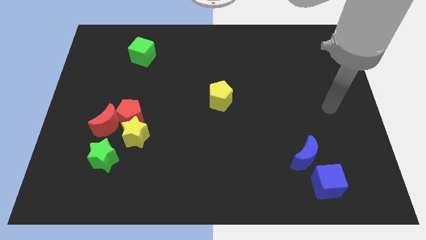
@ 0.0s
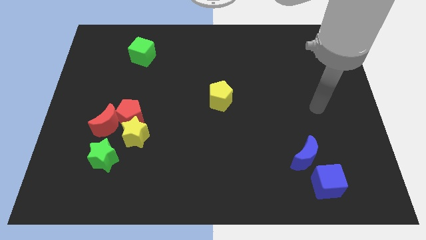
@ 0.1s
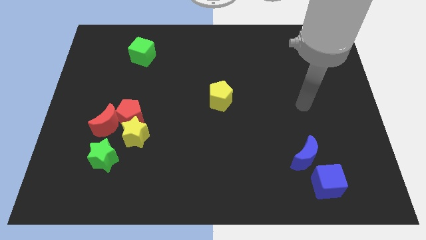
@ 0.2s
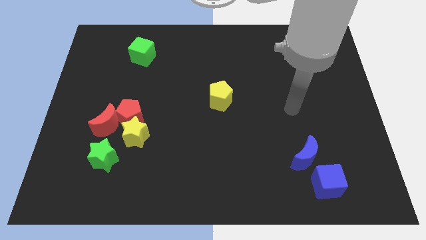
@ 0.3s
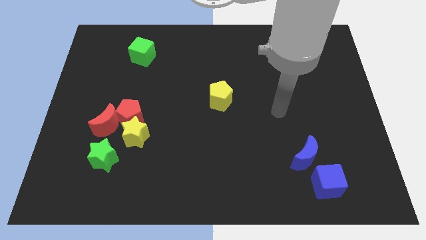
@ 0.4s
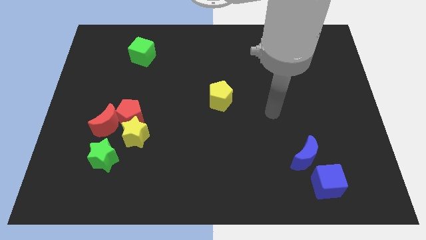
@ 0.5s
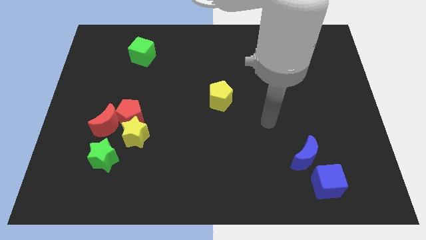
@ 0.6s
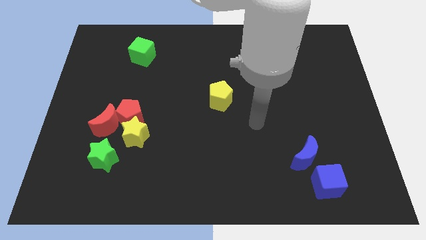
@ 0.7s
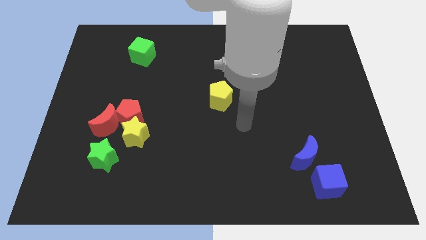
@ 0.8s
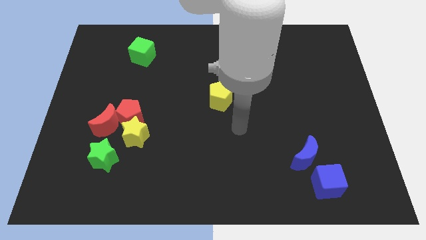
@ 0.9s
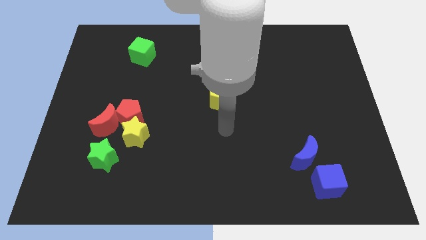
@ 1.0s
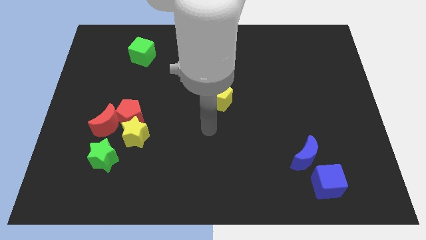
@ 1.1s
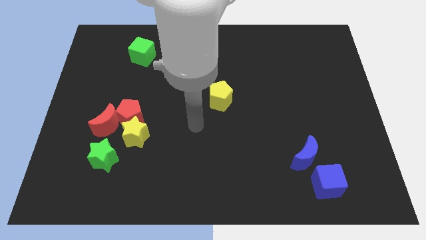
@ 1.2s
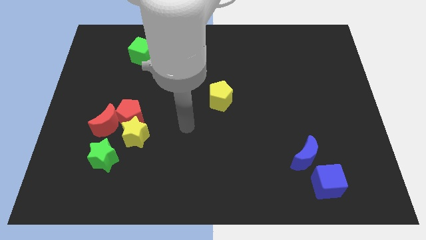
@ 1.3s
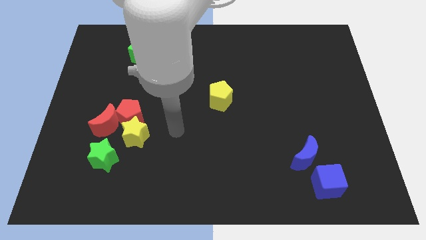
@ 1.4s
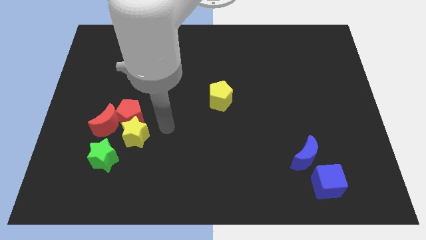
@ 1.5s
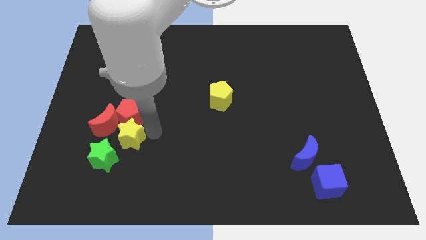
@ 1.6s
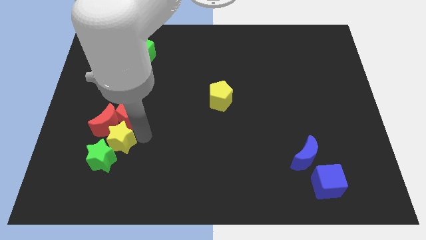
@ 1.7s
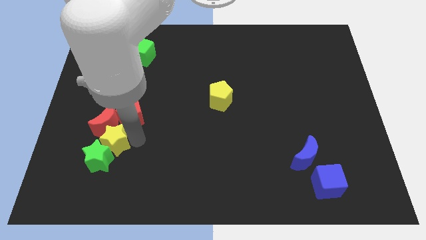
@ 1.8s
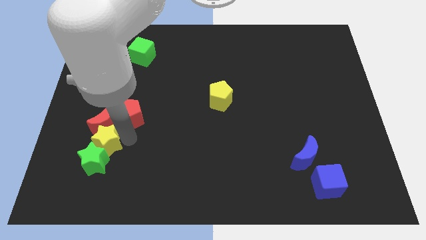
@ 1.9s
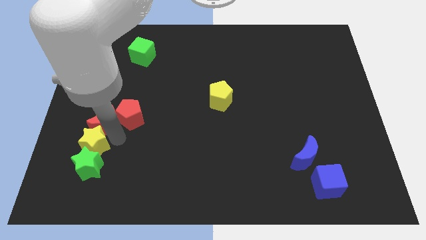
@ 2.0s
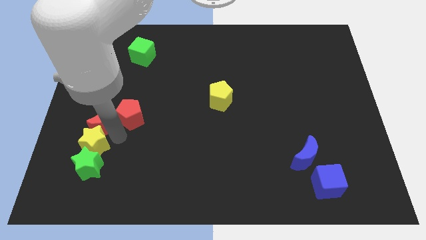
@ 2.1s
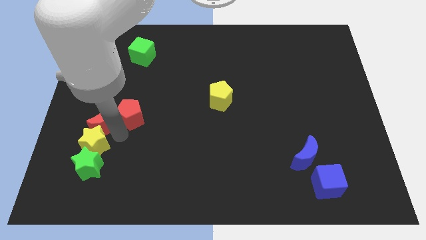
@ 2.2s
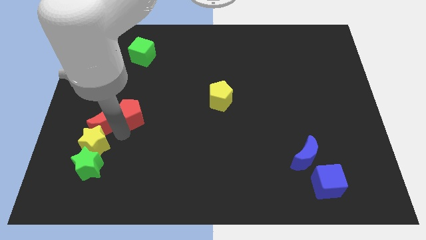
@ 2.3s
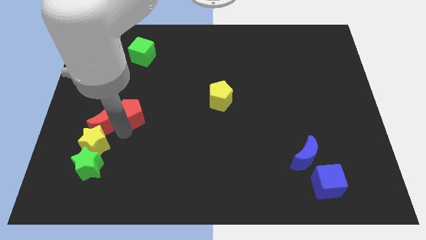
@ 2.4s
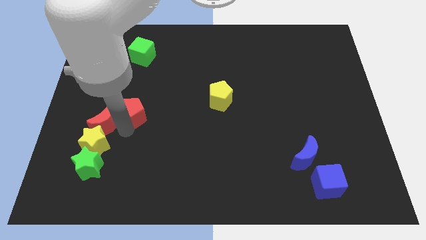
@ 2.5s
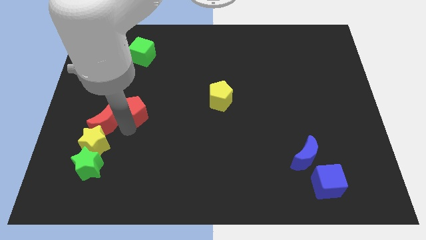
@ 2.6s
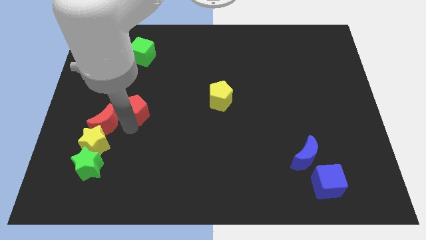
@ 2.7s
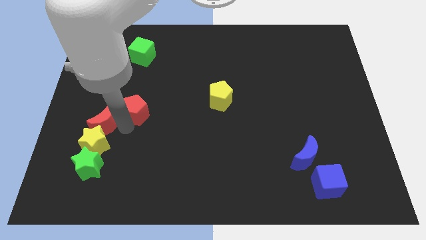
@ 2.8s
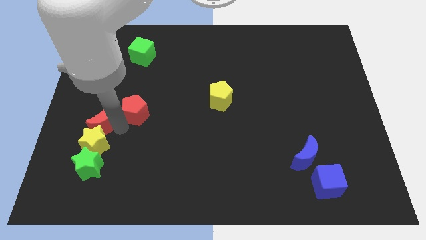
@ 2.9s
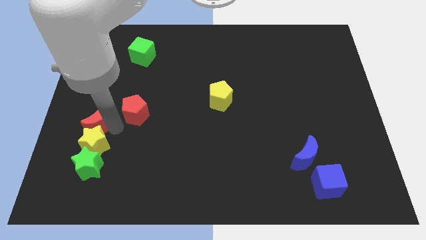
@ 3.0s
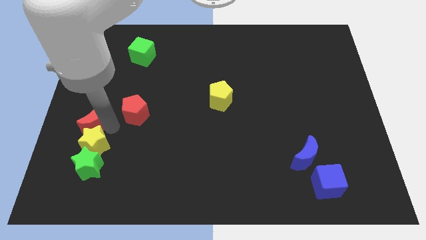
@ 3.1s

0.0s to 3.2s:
separate the red pentagon from the yellow star and red moon

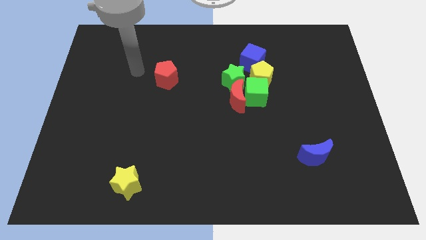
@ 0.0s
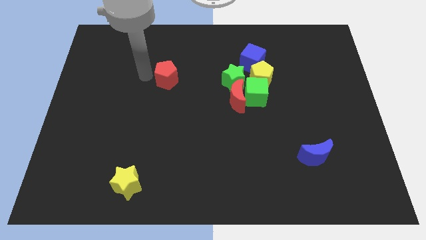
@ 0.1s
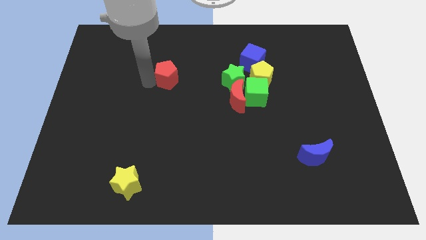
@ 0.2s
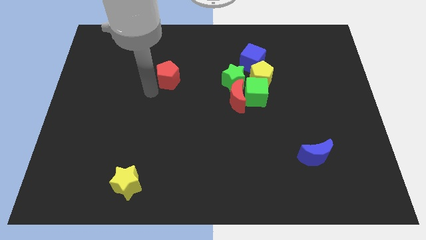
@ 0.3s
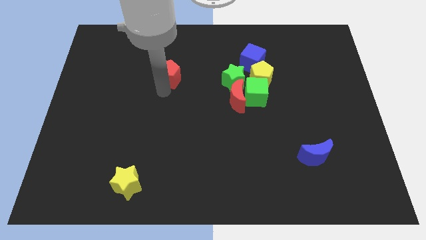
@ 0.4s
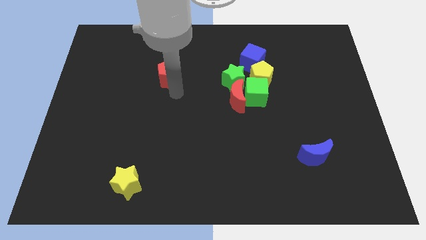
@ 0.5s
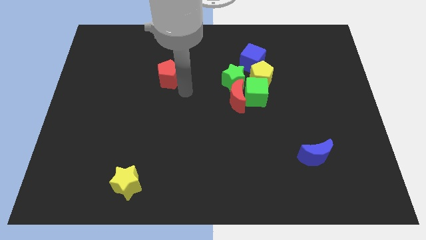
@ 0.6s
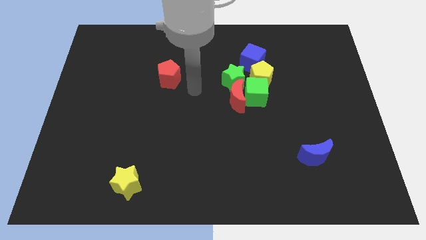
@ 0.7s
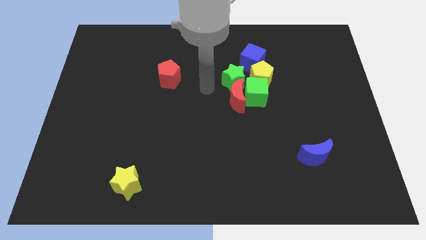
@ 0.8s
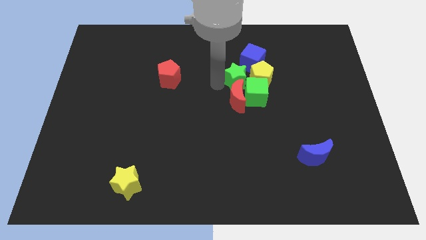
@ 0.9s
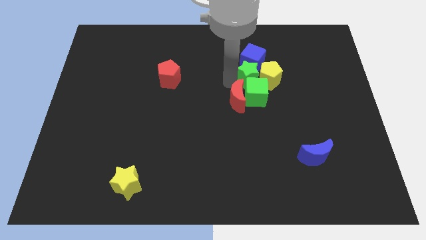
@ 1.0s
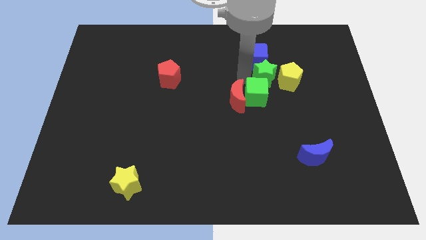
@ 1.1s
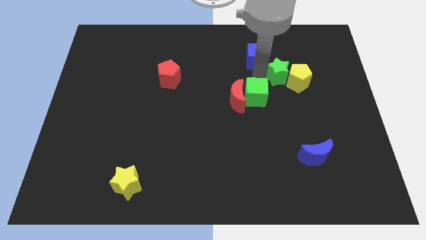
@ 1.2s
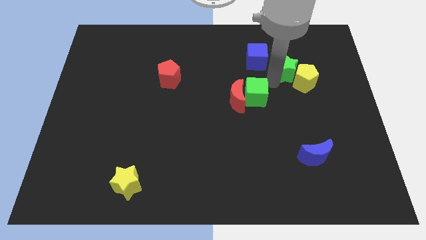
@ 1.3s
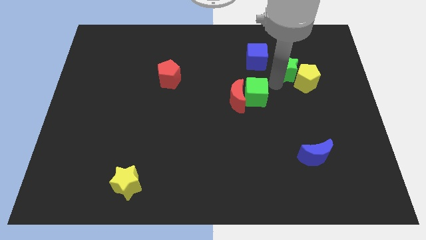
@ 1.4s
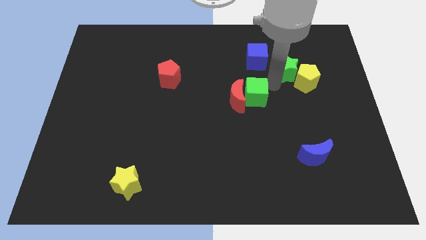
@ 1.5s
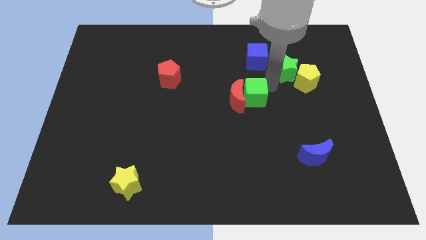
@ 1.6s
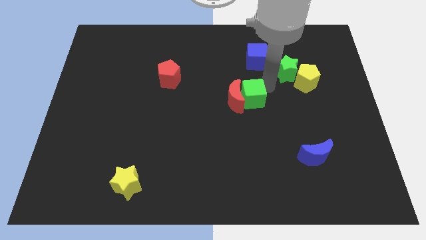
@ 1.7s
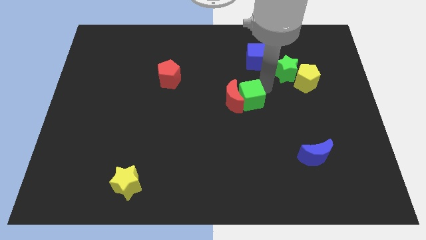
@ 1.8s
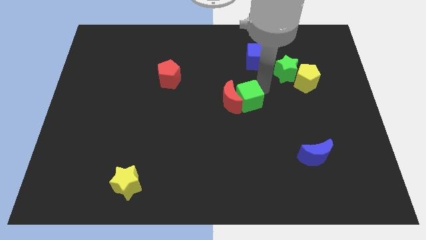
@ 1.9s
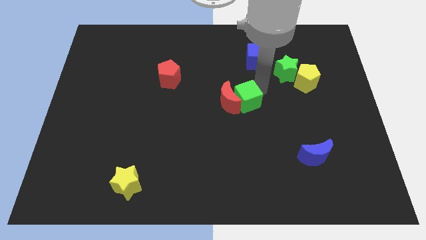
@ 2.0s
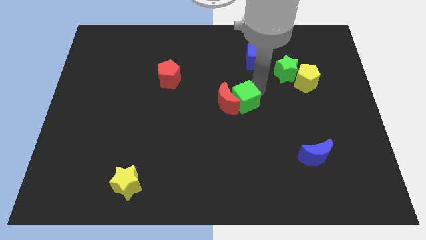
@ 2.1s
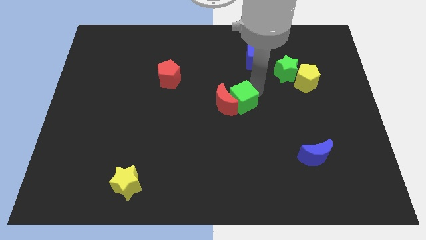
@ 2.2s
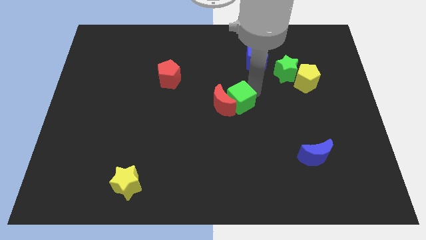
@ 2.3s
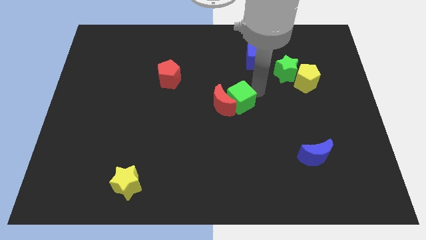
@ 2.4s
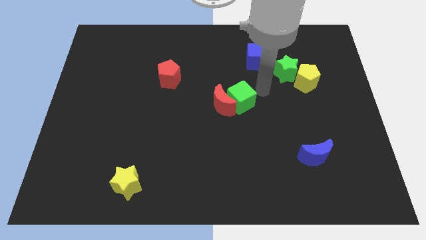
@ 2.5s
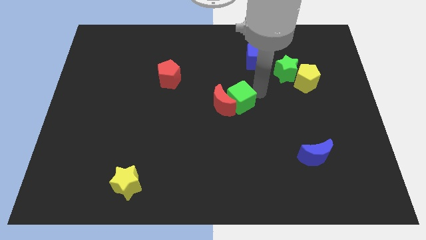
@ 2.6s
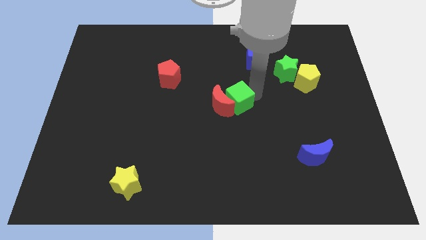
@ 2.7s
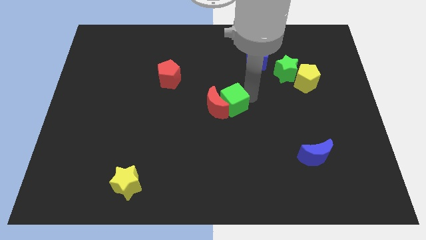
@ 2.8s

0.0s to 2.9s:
pull the green cube apart from the clump

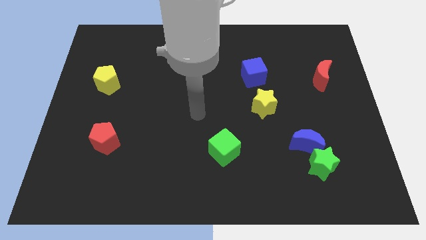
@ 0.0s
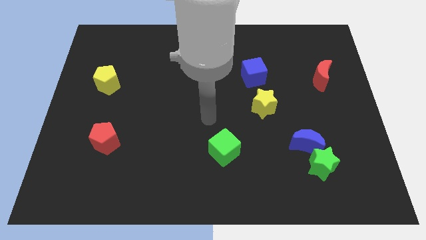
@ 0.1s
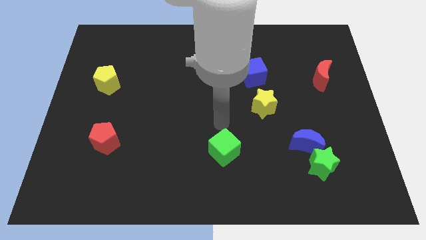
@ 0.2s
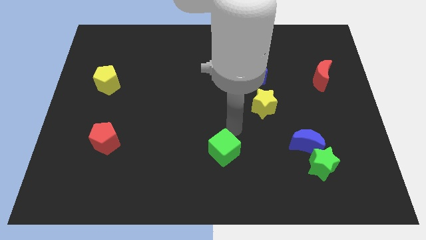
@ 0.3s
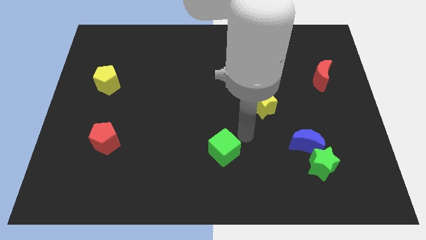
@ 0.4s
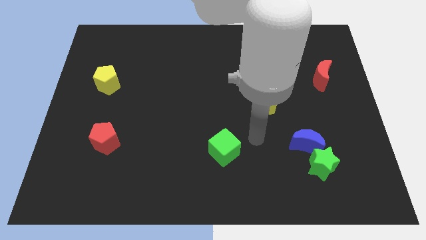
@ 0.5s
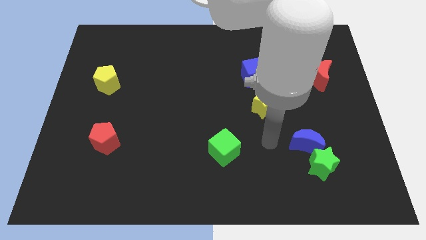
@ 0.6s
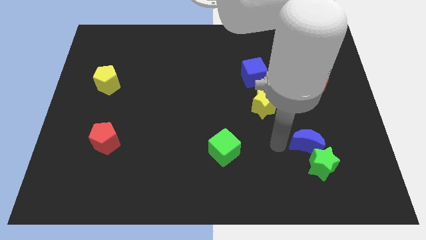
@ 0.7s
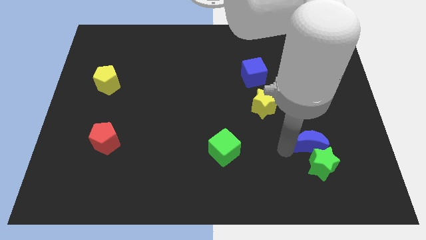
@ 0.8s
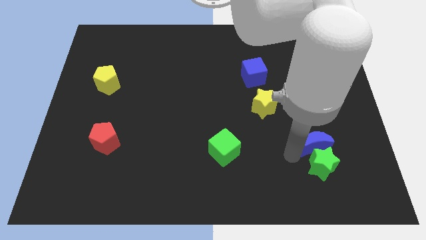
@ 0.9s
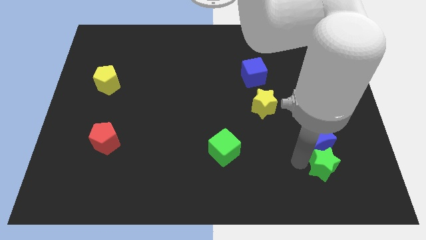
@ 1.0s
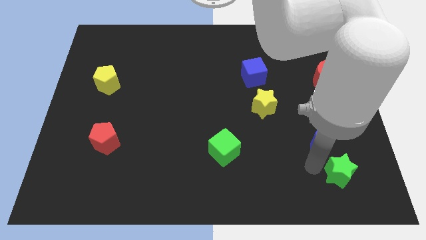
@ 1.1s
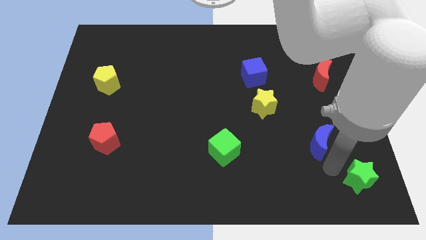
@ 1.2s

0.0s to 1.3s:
separate the blue moon from the green star

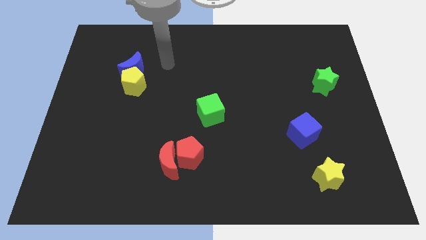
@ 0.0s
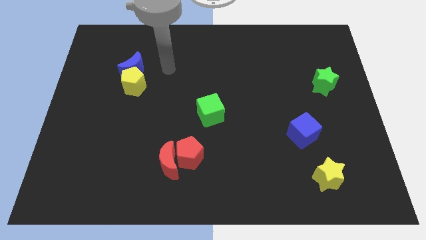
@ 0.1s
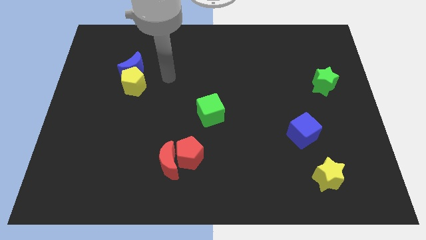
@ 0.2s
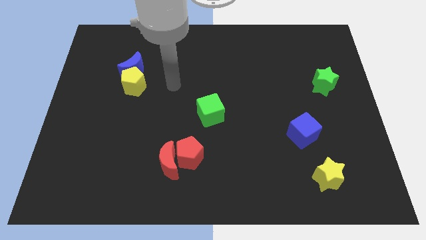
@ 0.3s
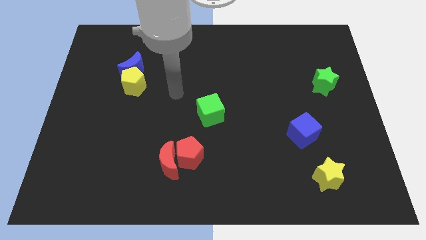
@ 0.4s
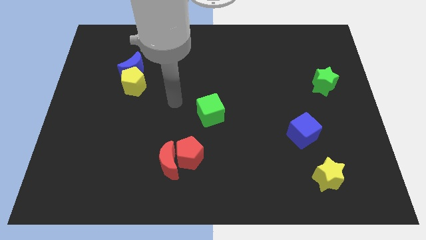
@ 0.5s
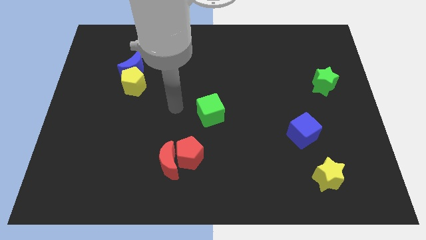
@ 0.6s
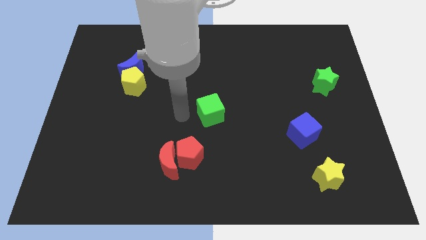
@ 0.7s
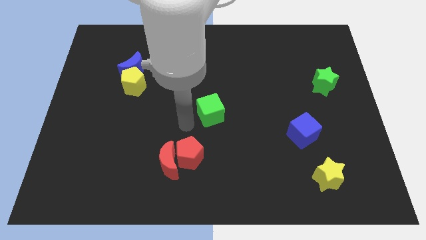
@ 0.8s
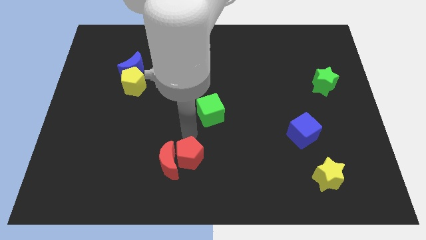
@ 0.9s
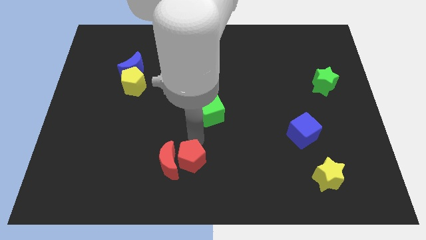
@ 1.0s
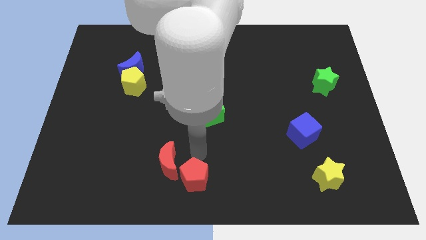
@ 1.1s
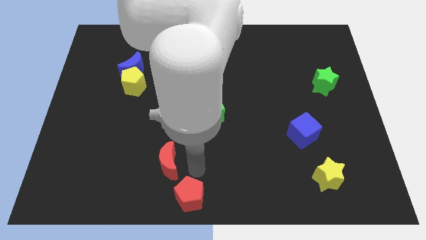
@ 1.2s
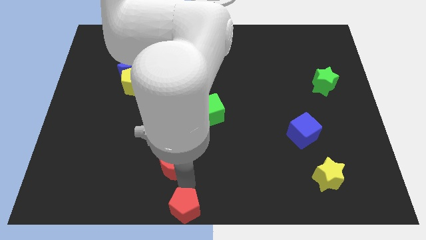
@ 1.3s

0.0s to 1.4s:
separate the red moon from the red pentagon

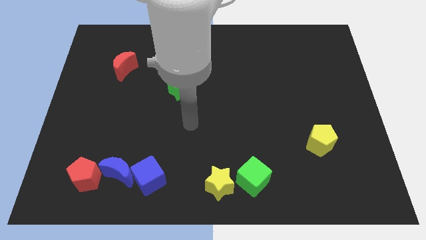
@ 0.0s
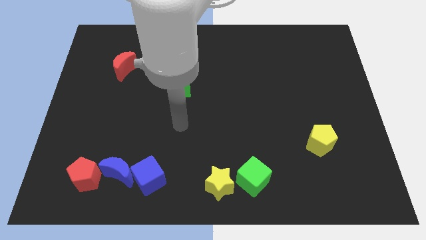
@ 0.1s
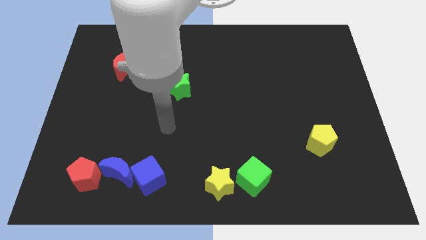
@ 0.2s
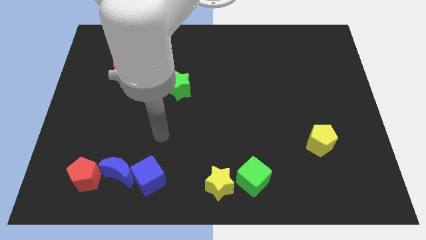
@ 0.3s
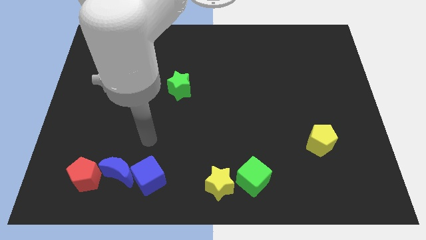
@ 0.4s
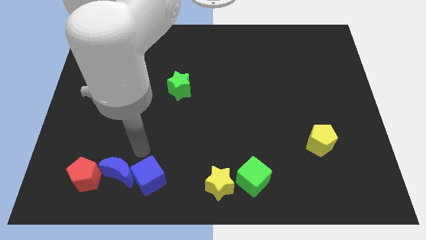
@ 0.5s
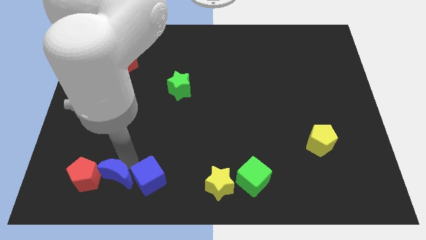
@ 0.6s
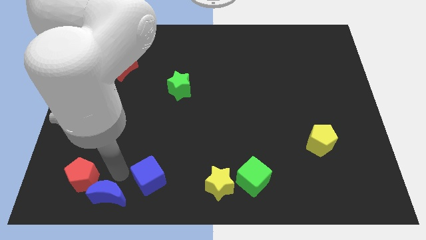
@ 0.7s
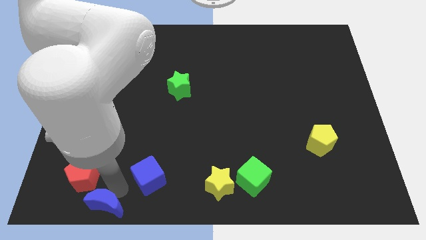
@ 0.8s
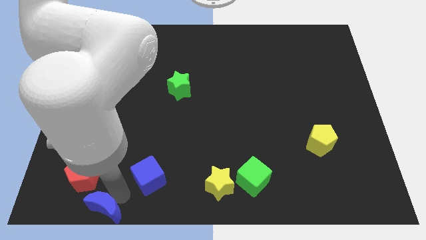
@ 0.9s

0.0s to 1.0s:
move the blue cube away from the blue moon
